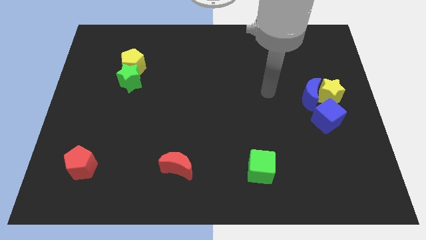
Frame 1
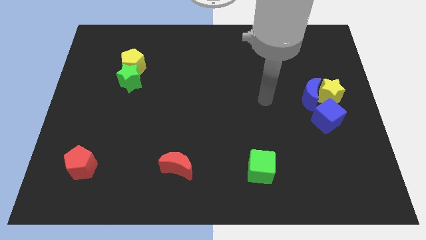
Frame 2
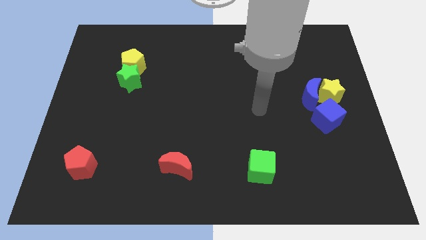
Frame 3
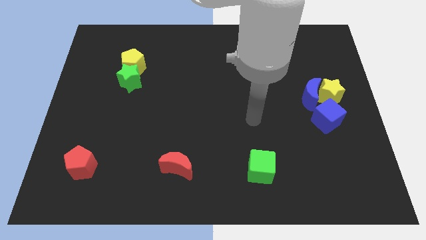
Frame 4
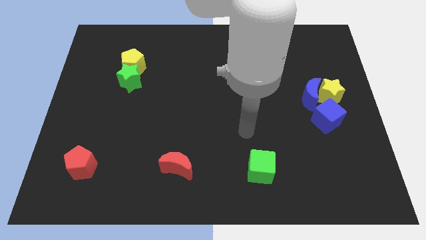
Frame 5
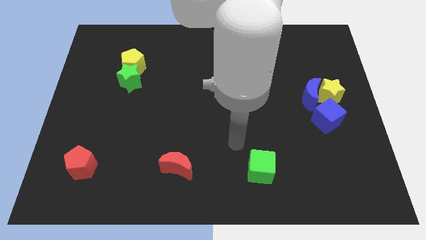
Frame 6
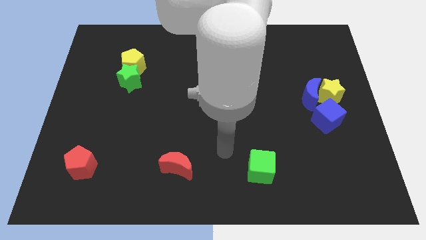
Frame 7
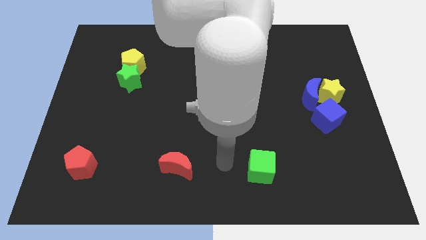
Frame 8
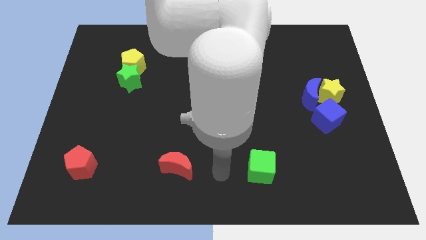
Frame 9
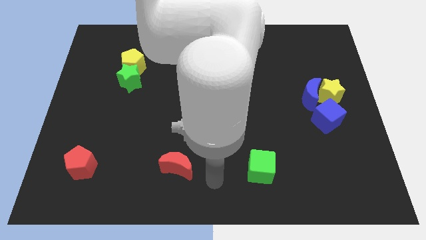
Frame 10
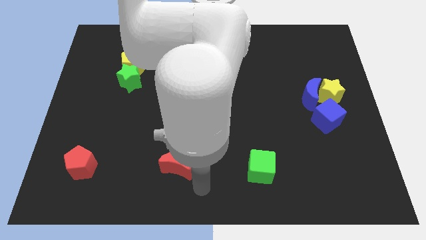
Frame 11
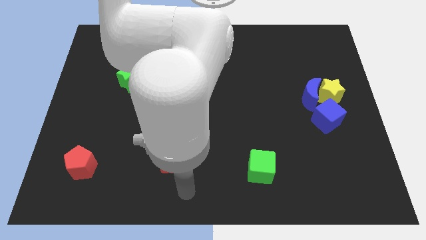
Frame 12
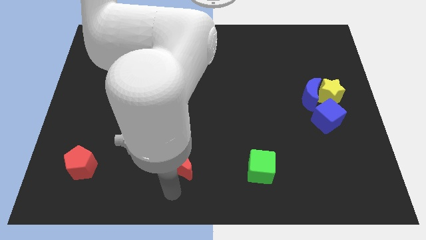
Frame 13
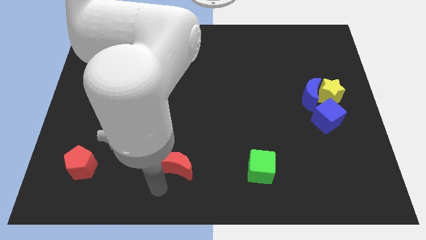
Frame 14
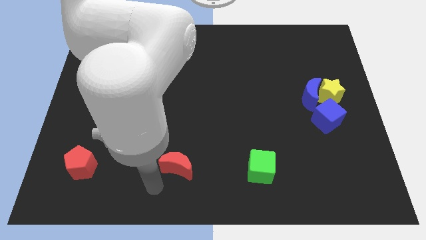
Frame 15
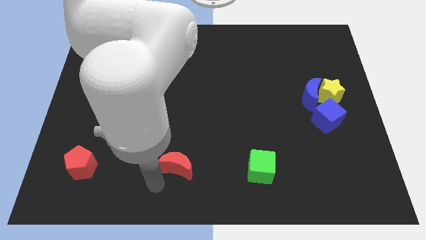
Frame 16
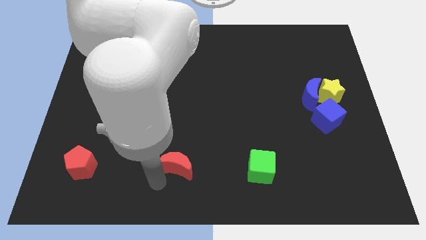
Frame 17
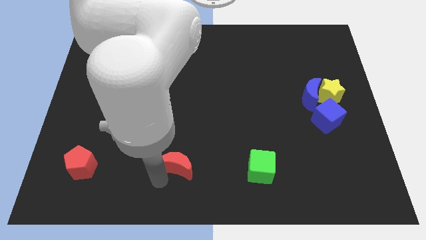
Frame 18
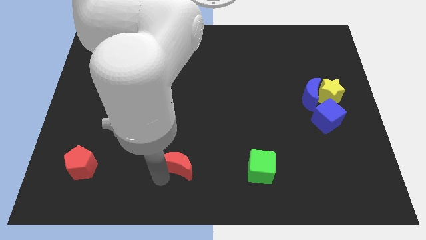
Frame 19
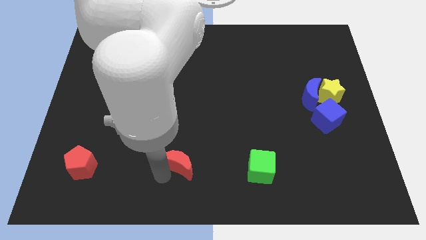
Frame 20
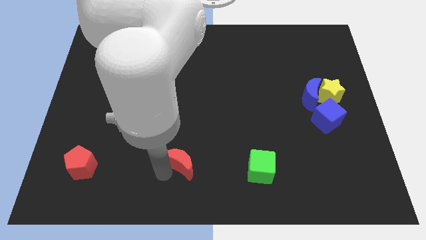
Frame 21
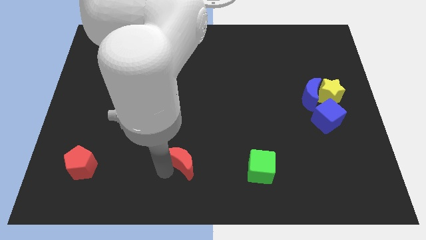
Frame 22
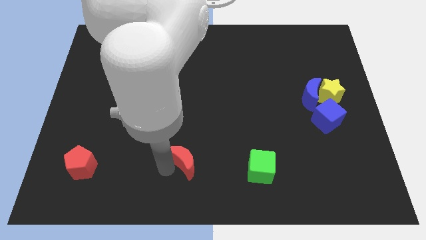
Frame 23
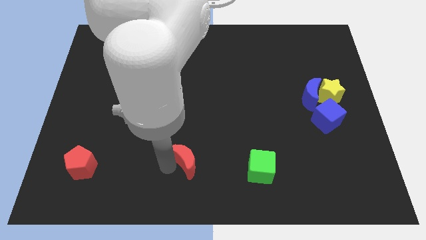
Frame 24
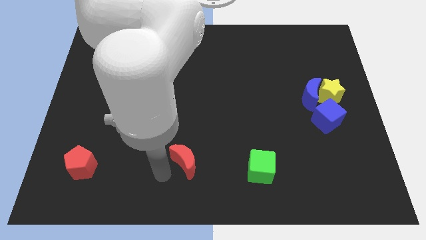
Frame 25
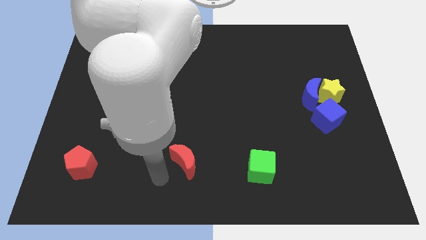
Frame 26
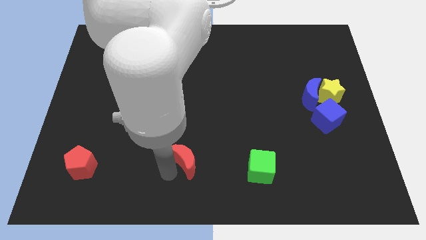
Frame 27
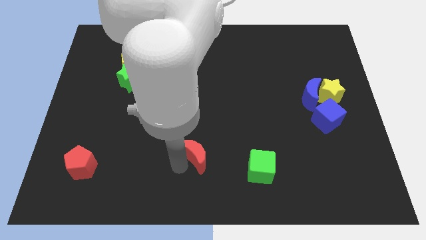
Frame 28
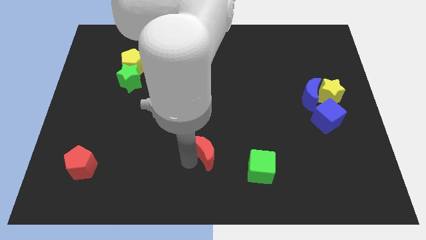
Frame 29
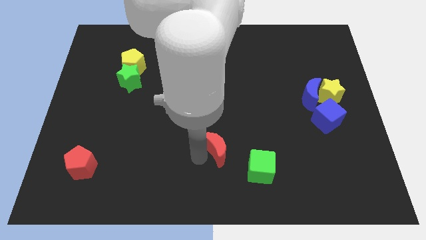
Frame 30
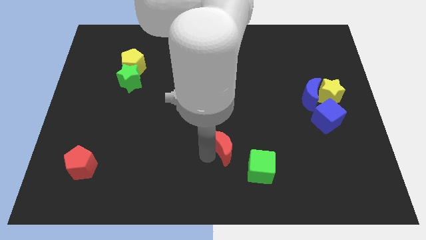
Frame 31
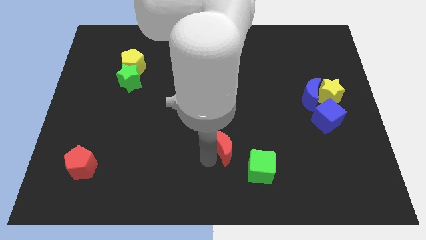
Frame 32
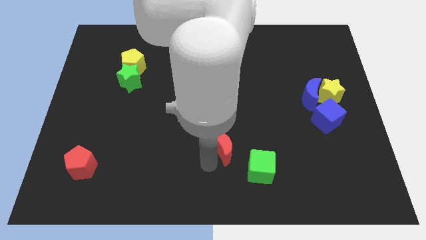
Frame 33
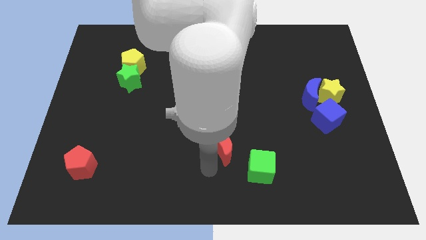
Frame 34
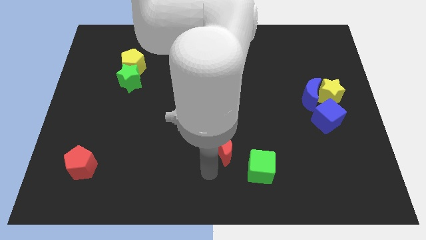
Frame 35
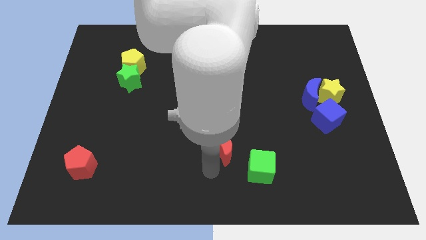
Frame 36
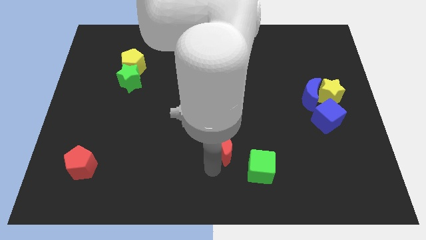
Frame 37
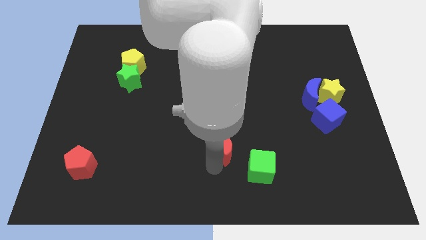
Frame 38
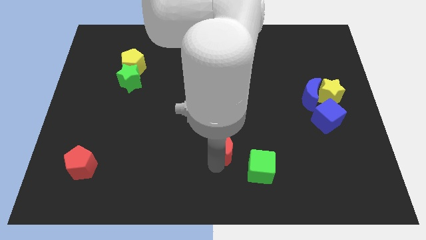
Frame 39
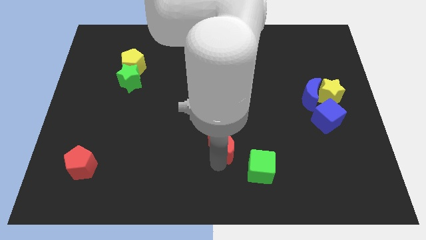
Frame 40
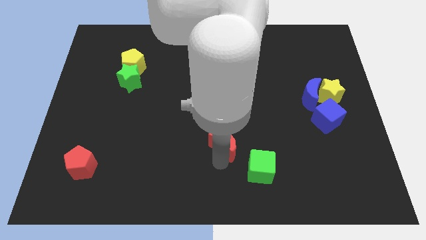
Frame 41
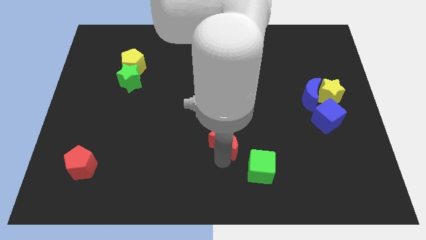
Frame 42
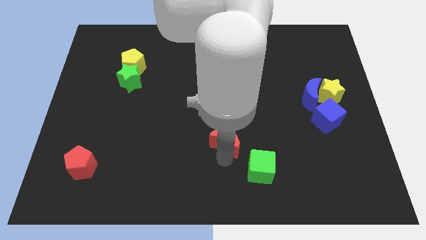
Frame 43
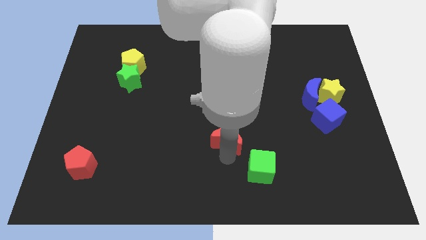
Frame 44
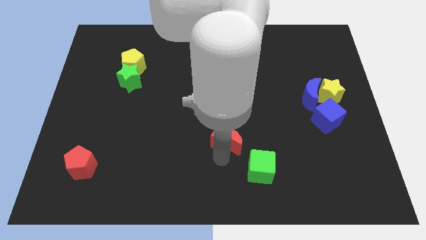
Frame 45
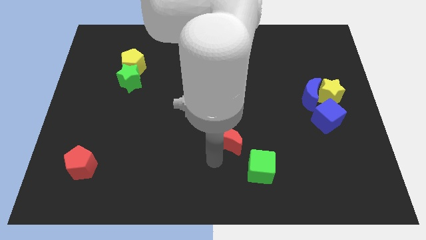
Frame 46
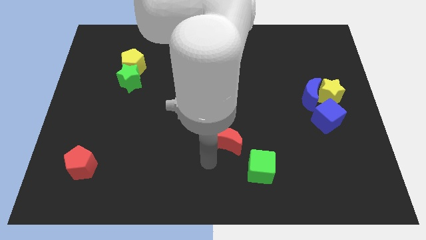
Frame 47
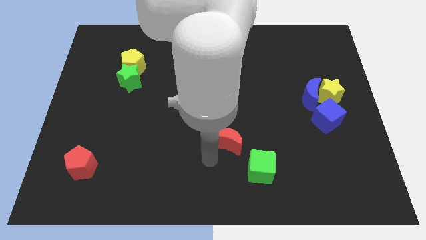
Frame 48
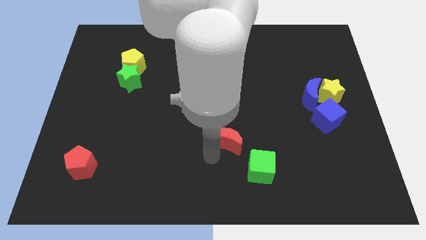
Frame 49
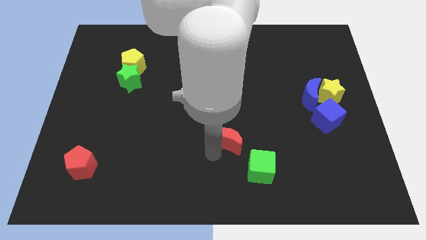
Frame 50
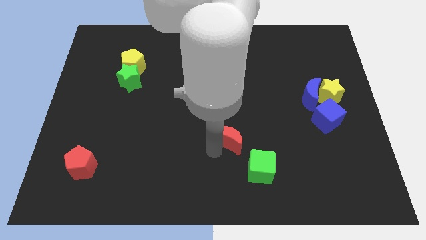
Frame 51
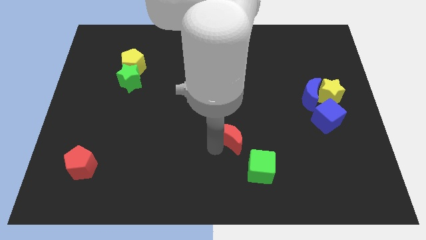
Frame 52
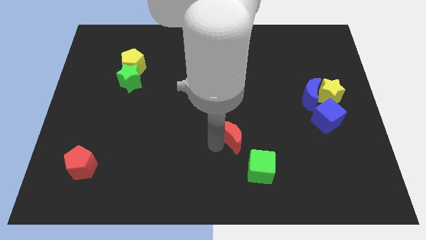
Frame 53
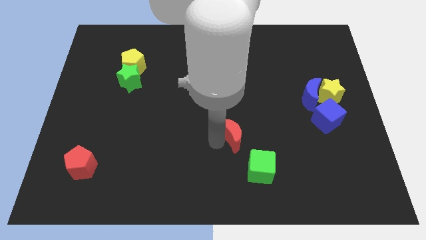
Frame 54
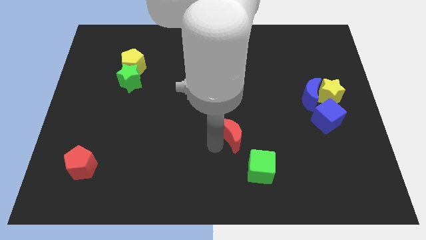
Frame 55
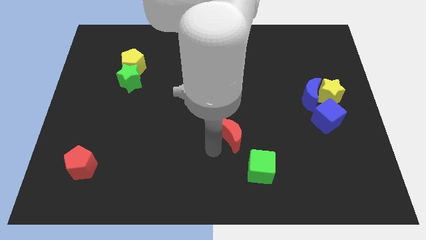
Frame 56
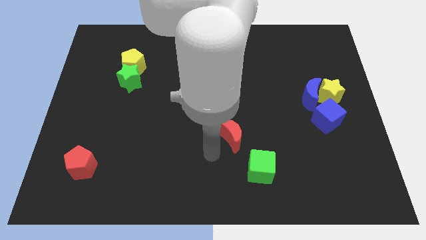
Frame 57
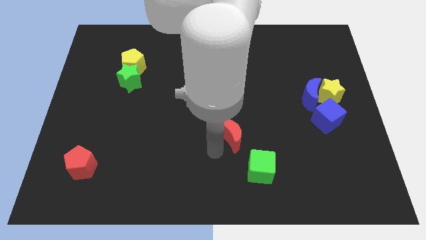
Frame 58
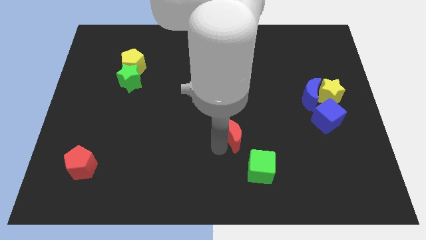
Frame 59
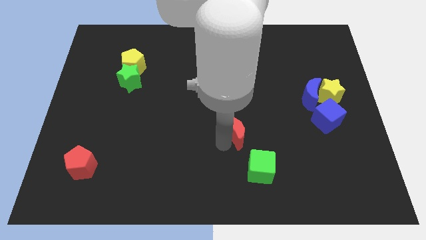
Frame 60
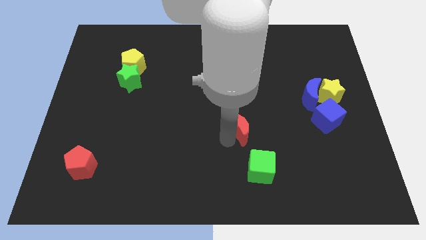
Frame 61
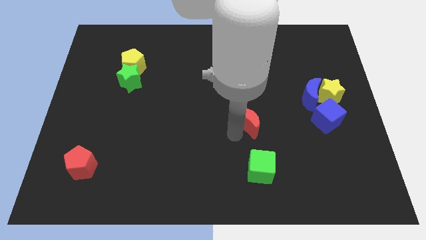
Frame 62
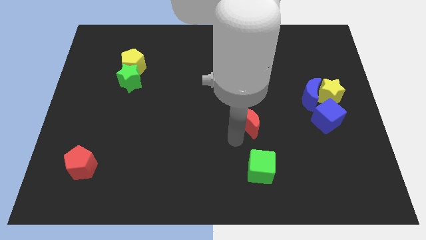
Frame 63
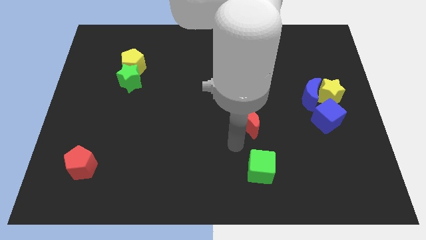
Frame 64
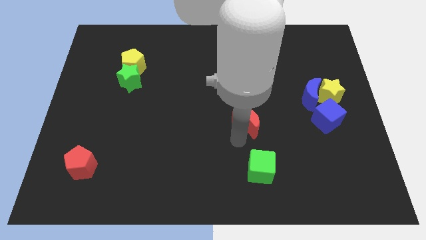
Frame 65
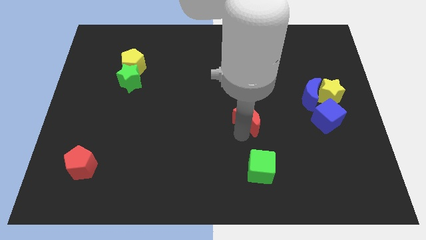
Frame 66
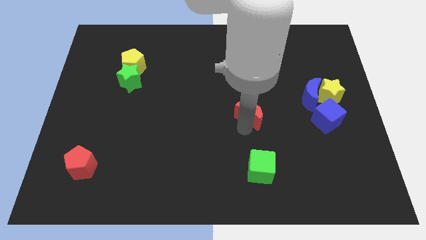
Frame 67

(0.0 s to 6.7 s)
slide the red moon up and right diagonally

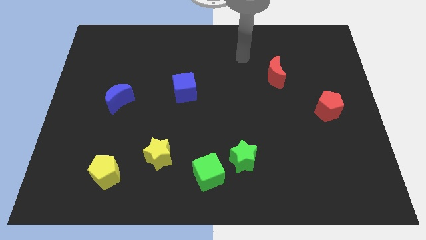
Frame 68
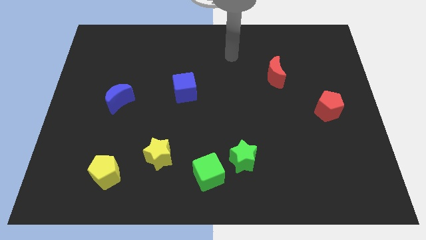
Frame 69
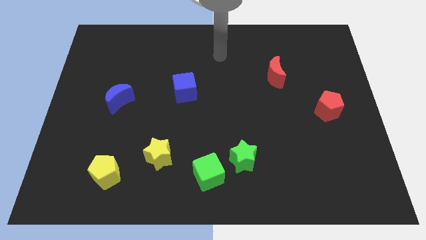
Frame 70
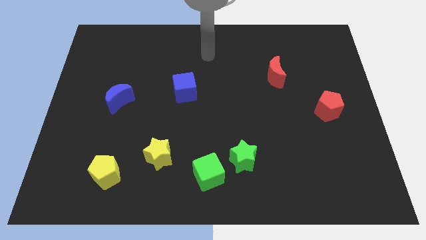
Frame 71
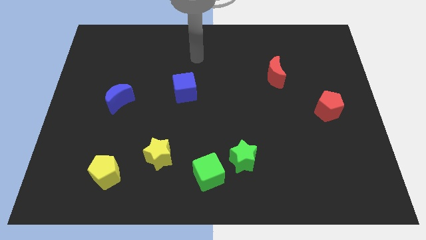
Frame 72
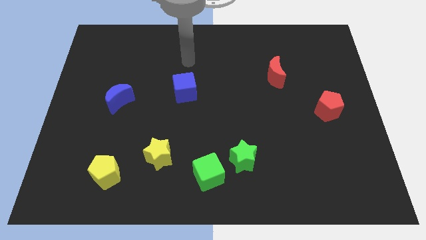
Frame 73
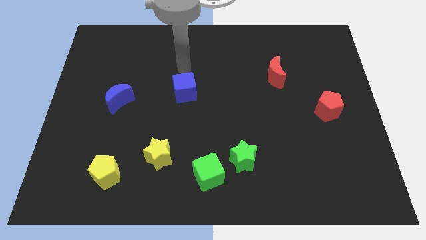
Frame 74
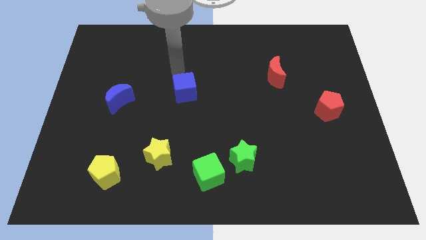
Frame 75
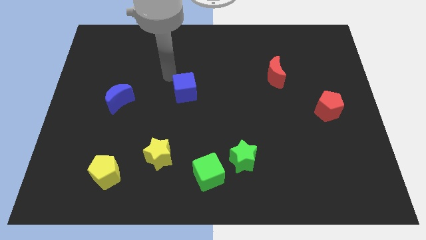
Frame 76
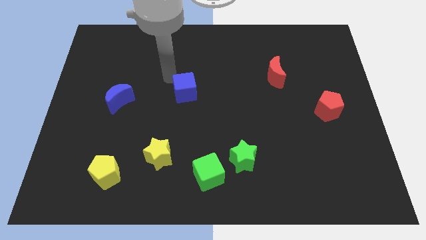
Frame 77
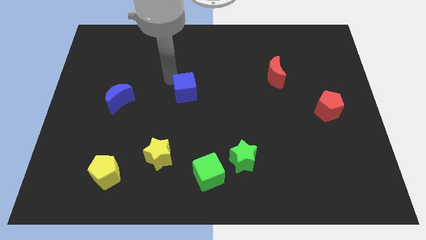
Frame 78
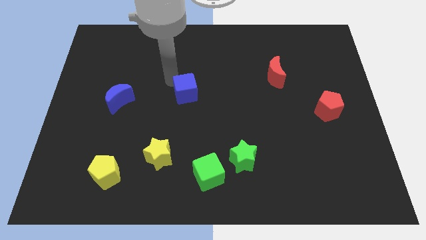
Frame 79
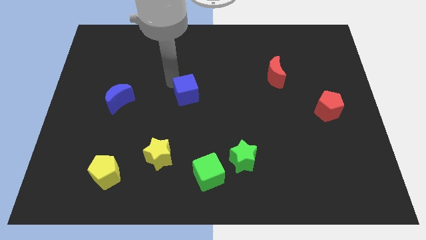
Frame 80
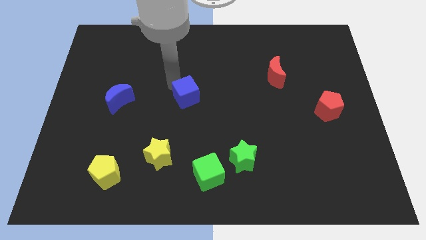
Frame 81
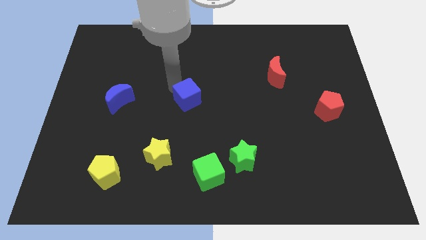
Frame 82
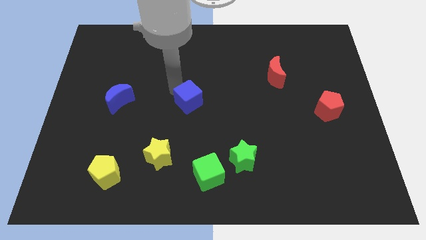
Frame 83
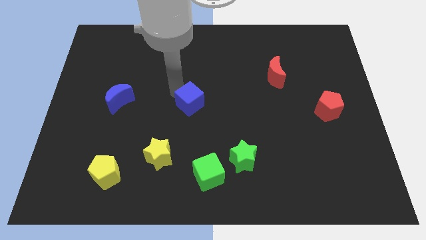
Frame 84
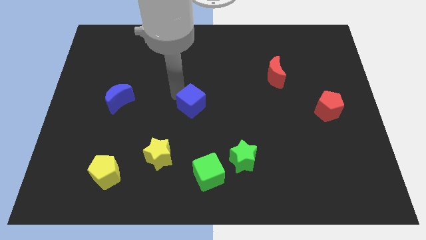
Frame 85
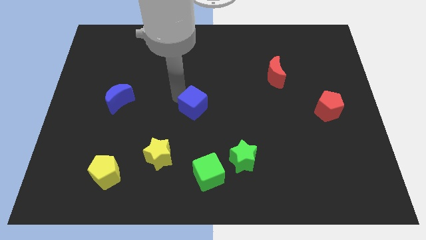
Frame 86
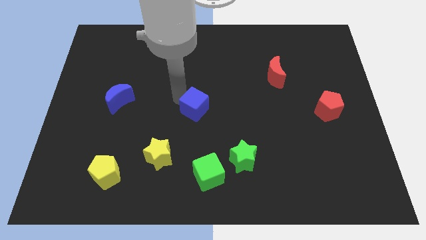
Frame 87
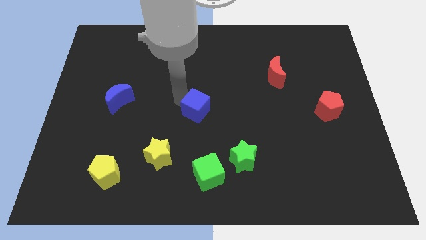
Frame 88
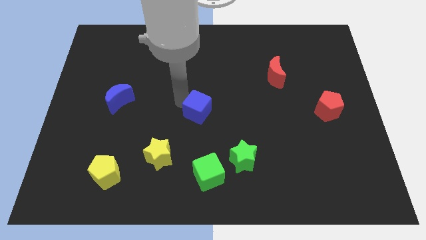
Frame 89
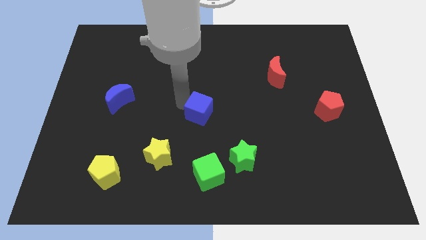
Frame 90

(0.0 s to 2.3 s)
push the blue cube somewhat diagonally downwards and right
